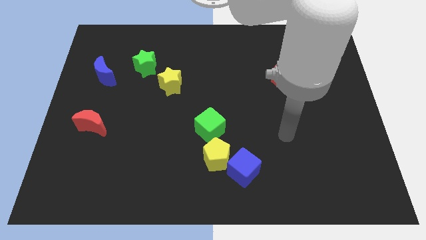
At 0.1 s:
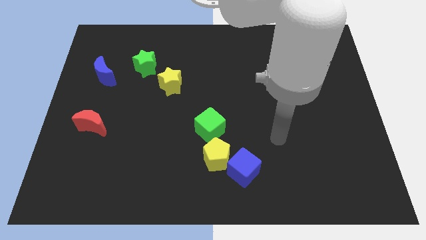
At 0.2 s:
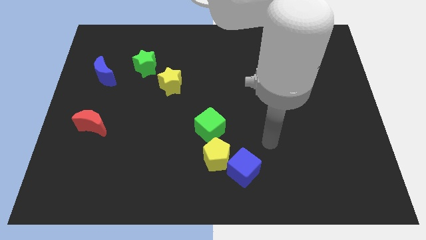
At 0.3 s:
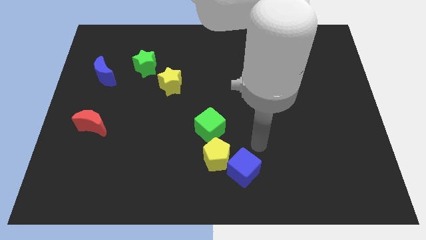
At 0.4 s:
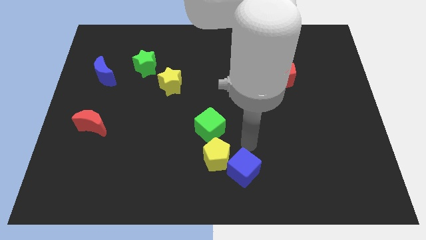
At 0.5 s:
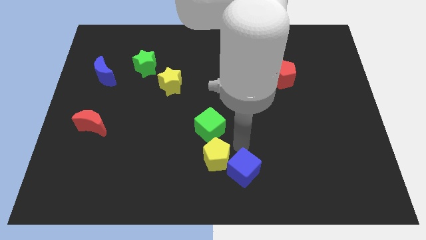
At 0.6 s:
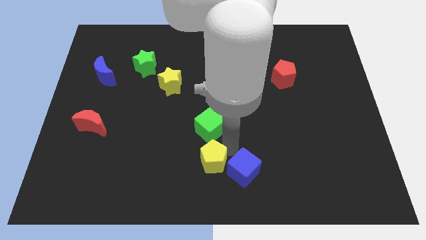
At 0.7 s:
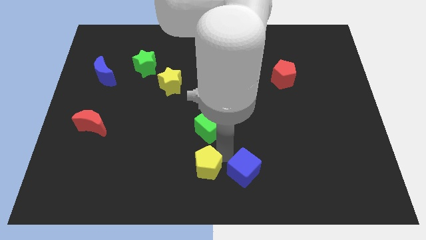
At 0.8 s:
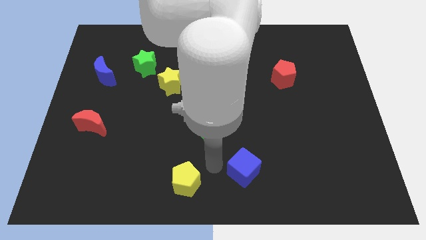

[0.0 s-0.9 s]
move the blue cube away from the yellow pentagon

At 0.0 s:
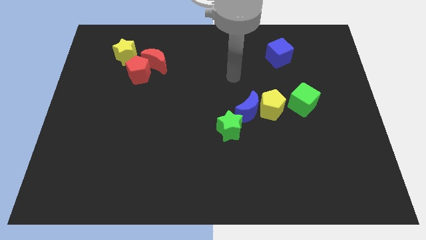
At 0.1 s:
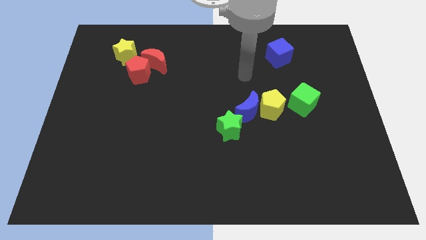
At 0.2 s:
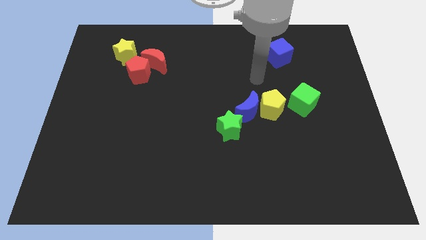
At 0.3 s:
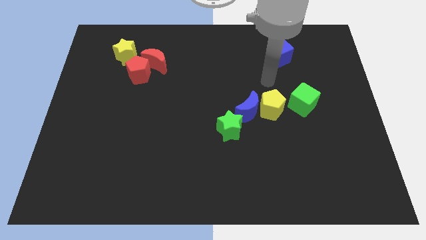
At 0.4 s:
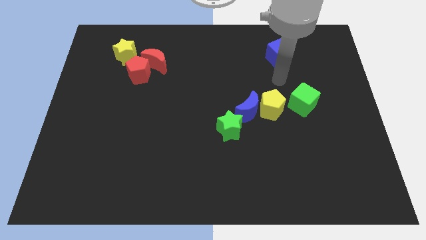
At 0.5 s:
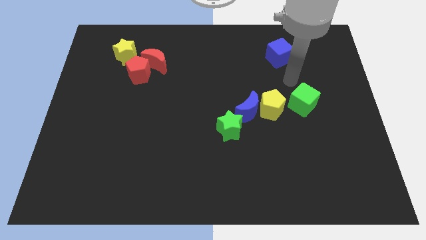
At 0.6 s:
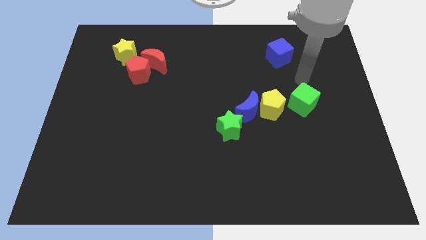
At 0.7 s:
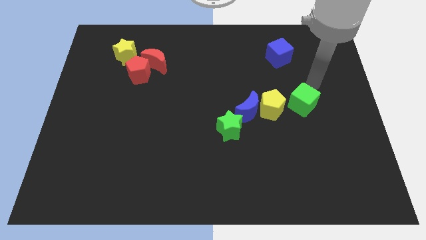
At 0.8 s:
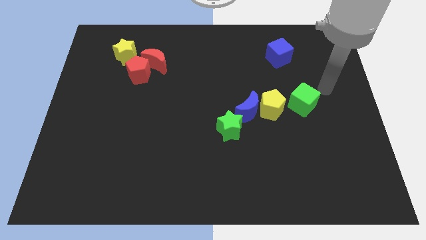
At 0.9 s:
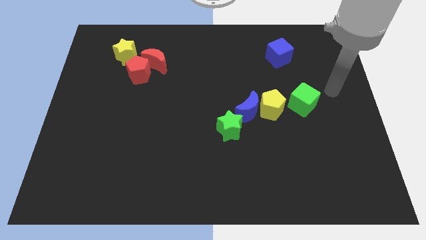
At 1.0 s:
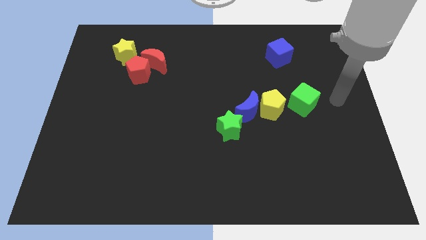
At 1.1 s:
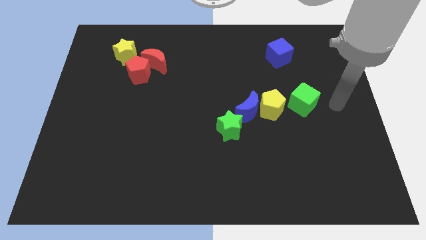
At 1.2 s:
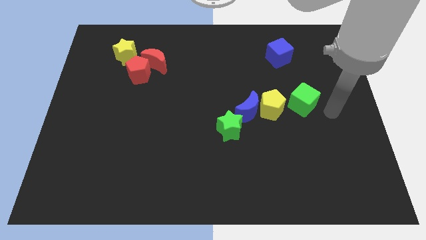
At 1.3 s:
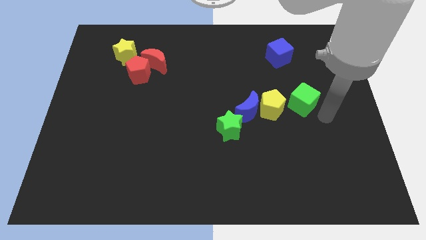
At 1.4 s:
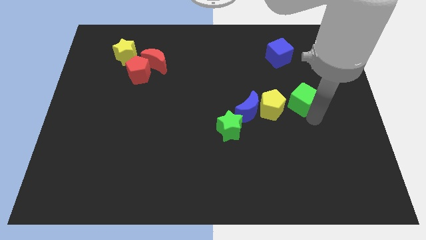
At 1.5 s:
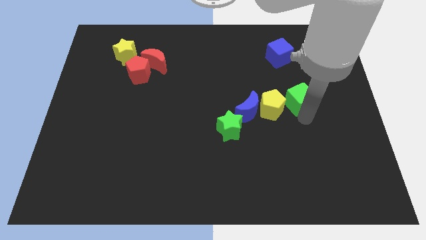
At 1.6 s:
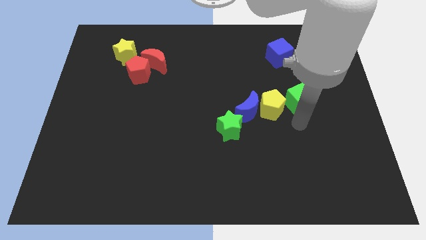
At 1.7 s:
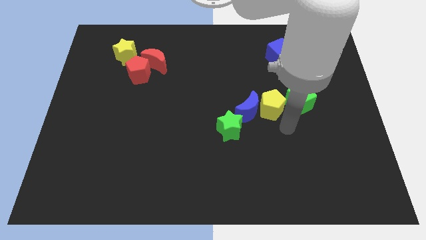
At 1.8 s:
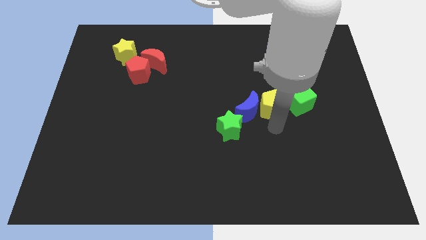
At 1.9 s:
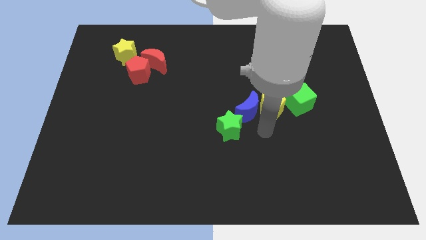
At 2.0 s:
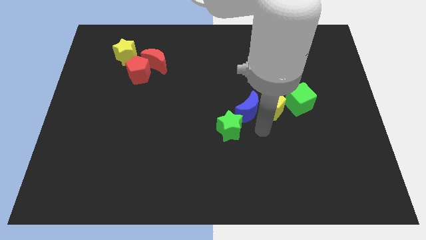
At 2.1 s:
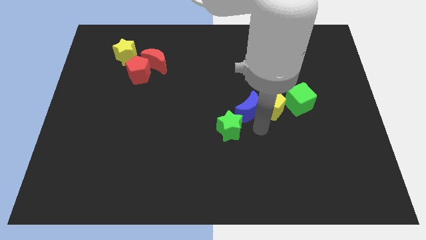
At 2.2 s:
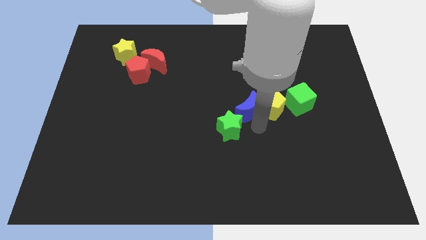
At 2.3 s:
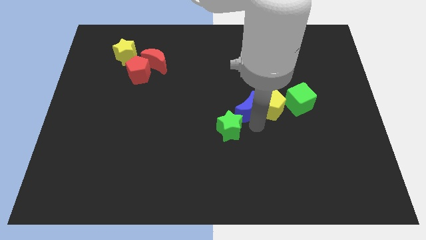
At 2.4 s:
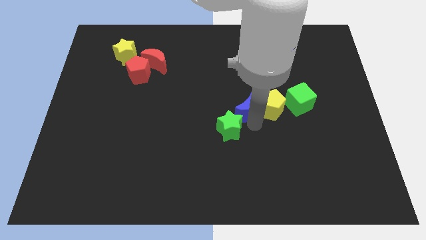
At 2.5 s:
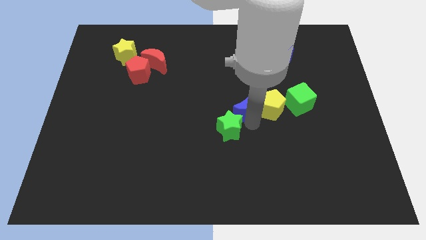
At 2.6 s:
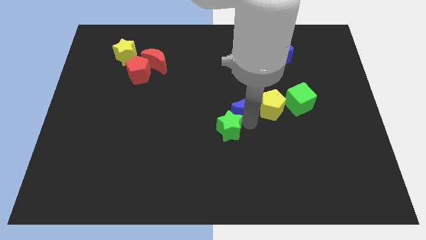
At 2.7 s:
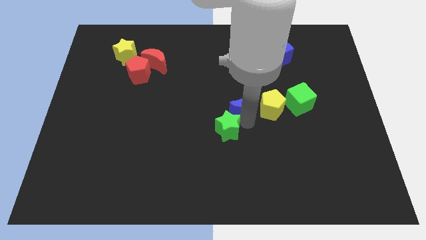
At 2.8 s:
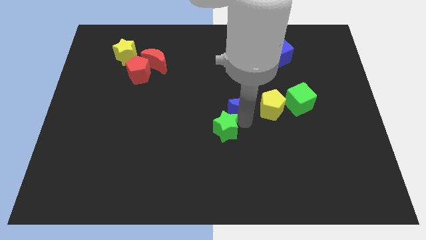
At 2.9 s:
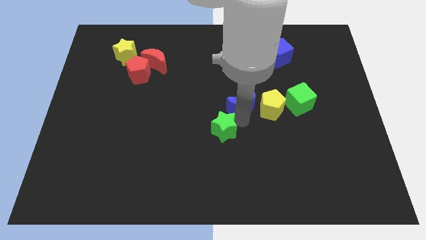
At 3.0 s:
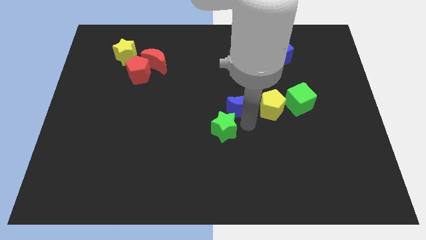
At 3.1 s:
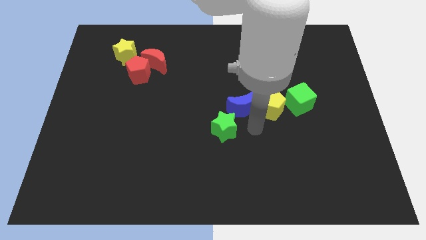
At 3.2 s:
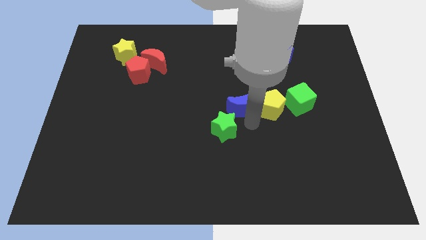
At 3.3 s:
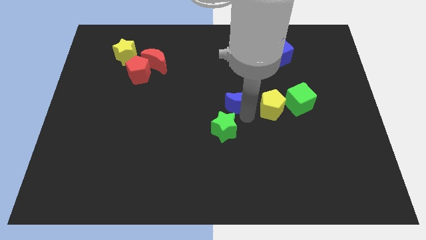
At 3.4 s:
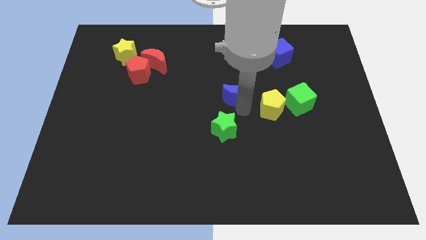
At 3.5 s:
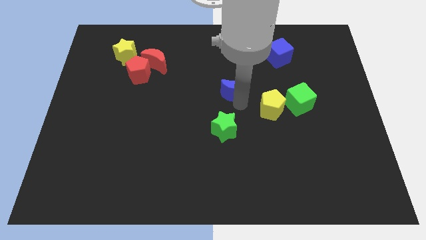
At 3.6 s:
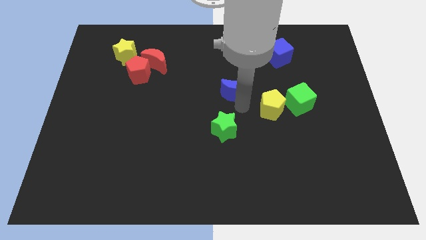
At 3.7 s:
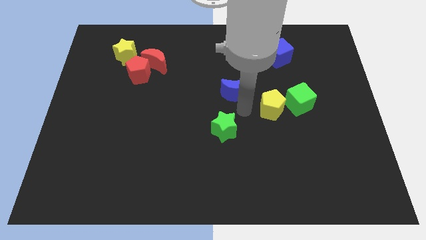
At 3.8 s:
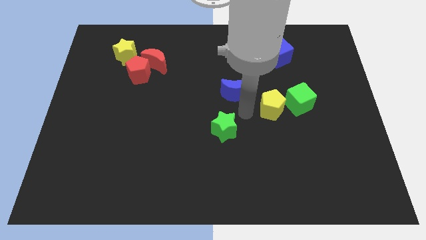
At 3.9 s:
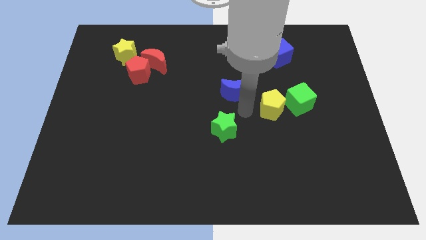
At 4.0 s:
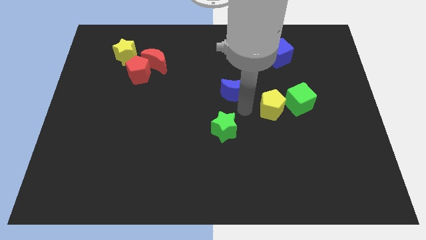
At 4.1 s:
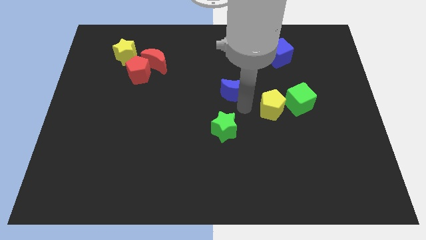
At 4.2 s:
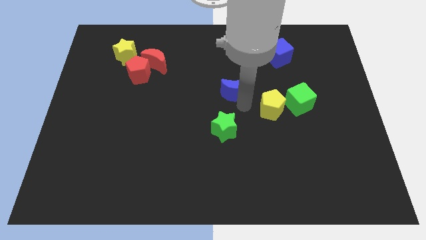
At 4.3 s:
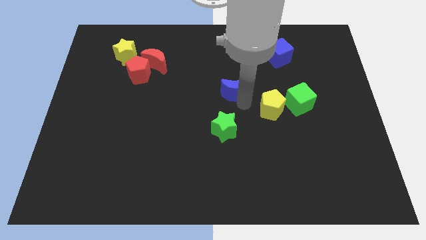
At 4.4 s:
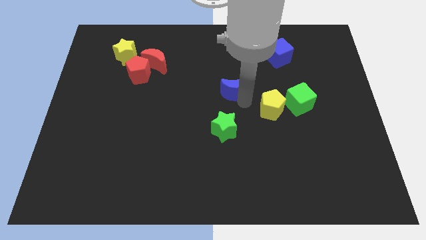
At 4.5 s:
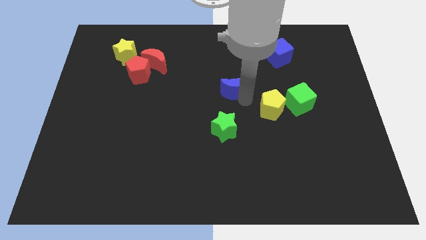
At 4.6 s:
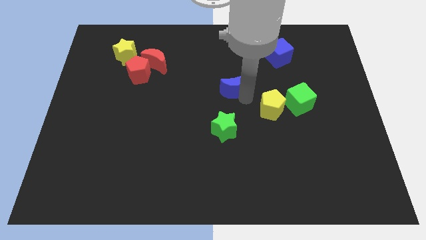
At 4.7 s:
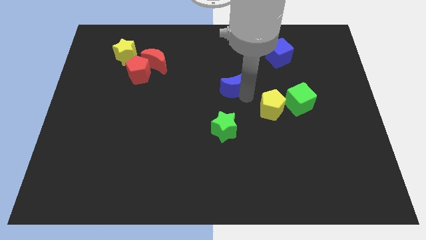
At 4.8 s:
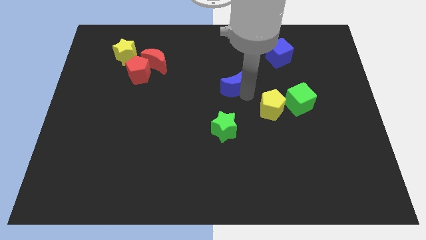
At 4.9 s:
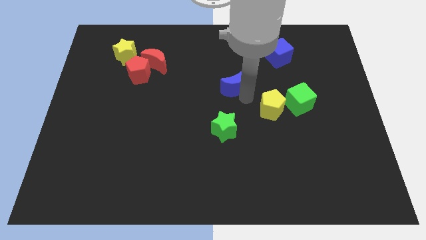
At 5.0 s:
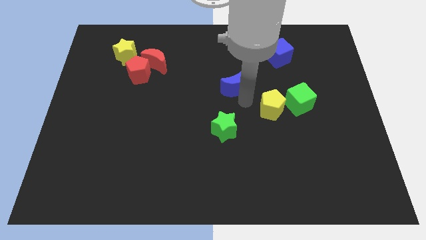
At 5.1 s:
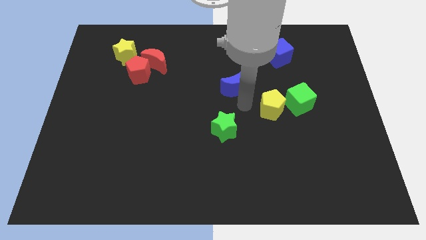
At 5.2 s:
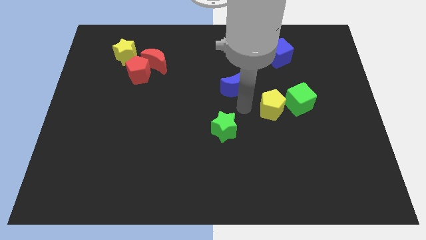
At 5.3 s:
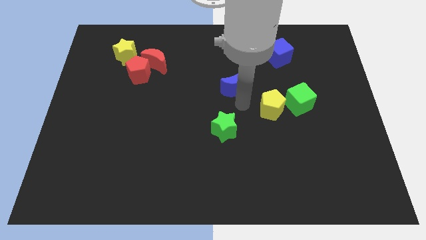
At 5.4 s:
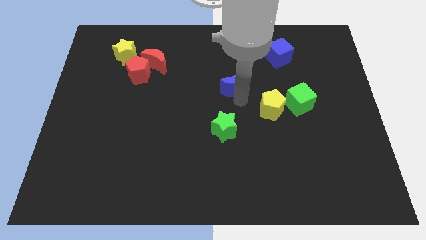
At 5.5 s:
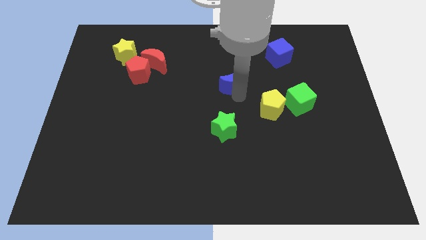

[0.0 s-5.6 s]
separate the blue moon from the yellow pentagon and green star

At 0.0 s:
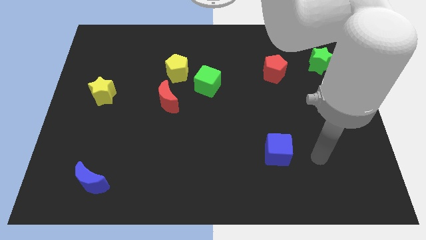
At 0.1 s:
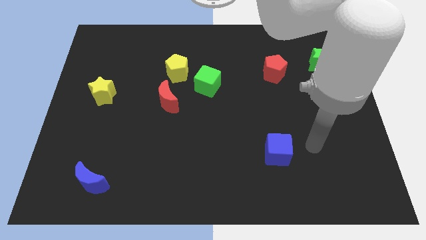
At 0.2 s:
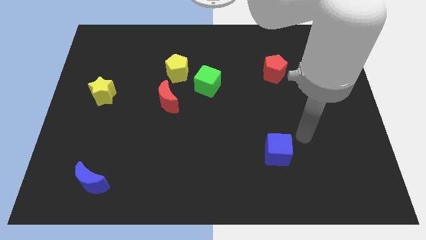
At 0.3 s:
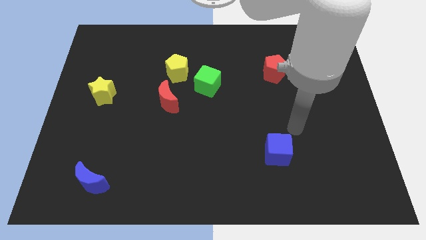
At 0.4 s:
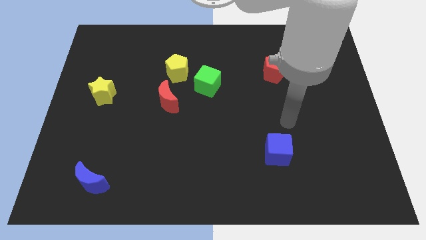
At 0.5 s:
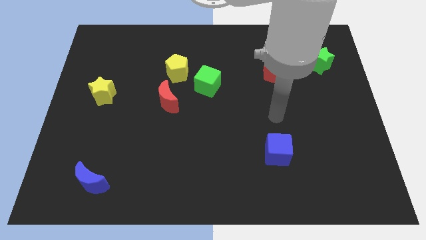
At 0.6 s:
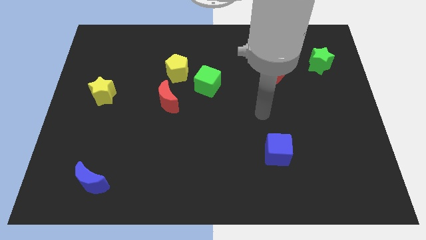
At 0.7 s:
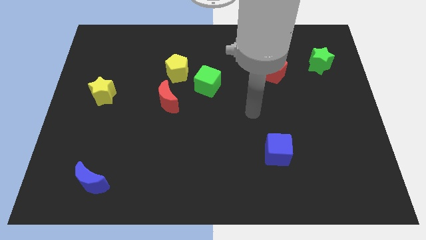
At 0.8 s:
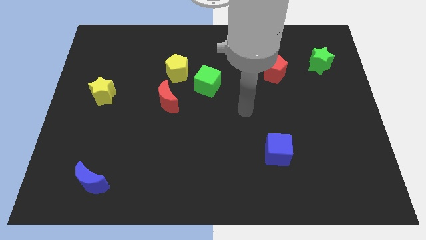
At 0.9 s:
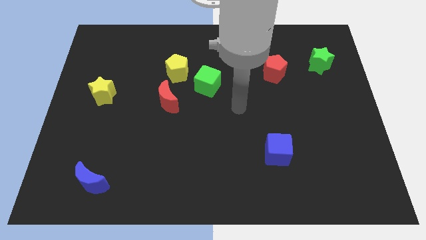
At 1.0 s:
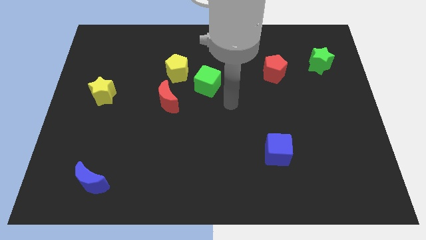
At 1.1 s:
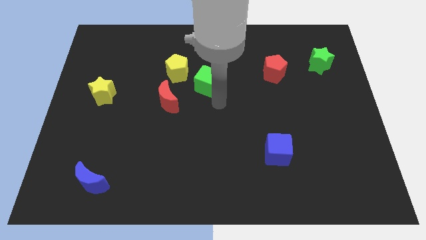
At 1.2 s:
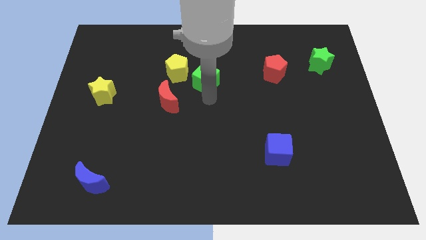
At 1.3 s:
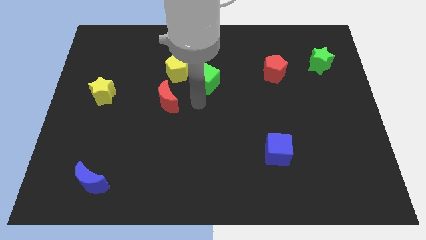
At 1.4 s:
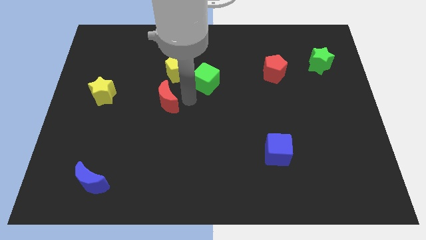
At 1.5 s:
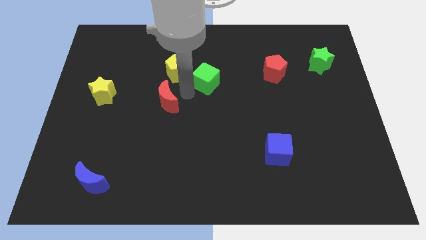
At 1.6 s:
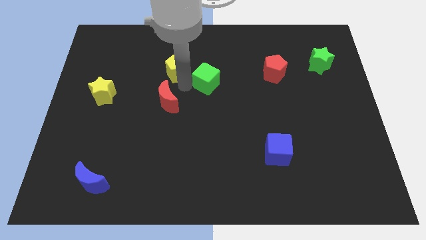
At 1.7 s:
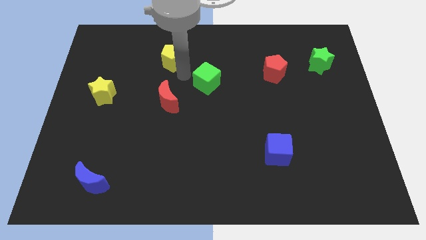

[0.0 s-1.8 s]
separate the green cube from the yellow pentagon

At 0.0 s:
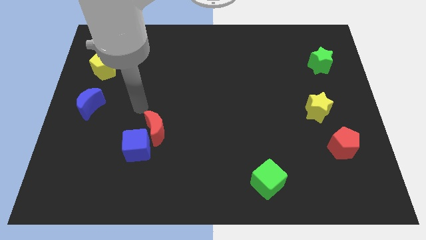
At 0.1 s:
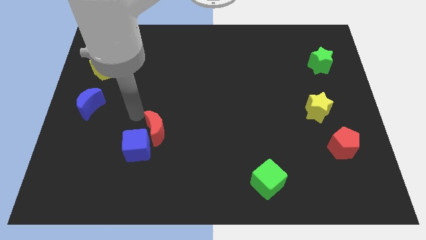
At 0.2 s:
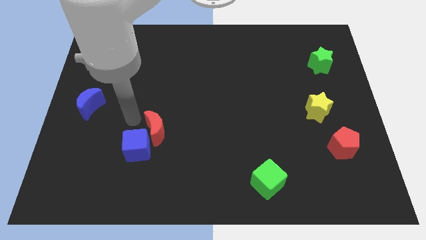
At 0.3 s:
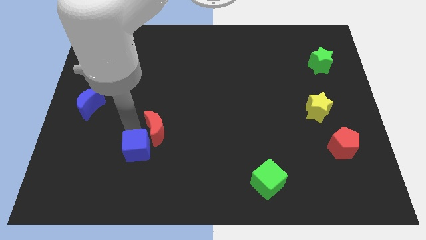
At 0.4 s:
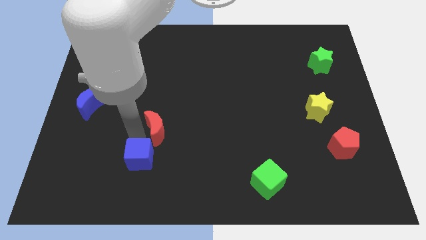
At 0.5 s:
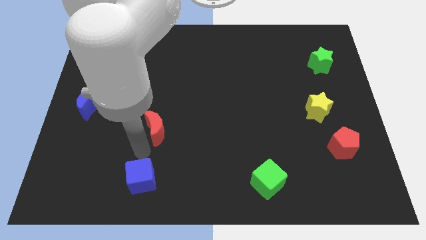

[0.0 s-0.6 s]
pull the red moon apart from the blue cube

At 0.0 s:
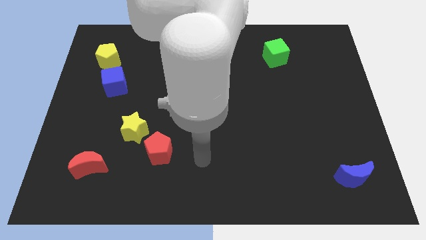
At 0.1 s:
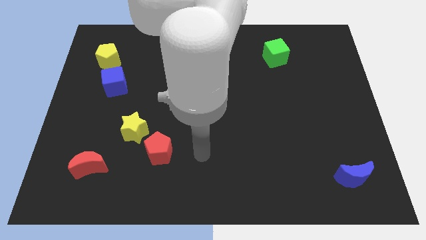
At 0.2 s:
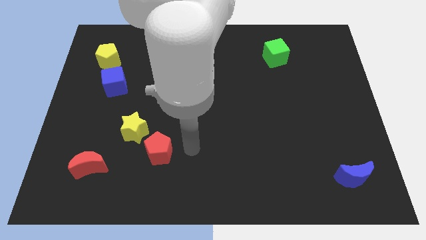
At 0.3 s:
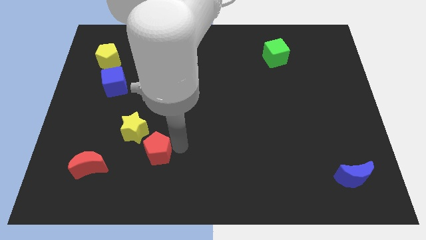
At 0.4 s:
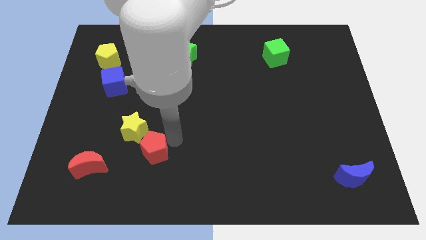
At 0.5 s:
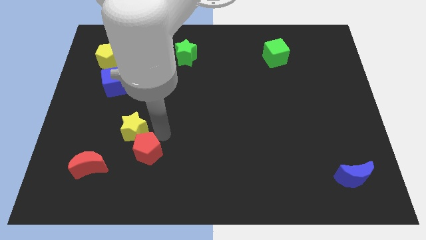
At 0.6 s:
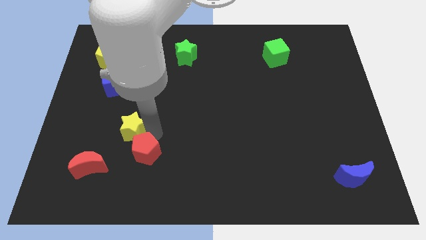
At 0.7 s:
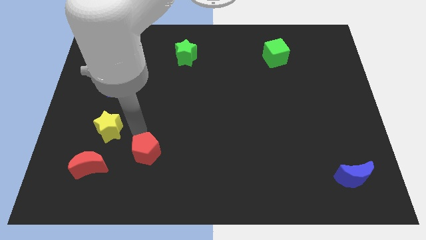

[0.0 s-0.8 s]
separate the red pentagon from the yellow star
